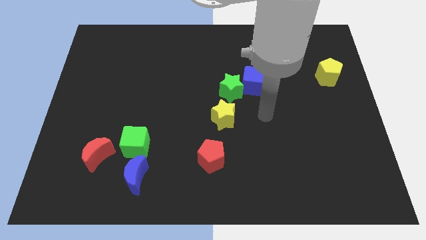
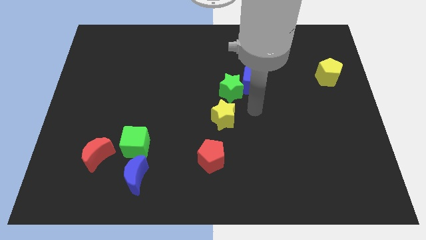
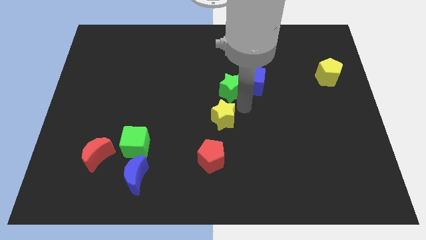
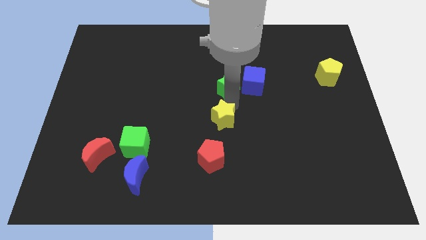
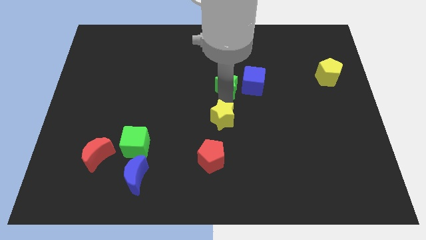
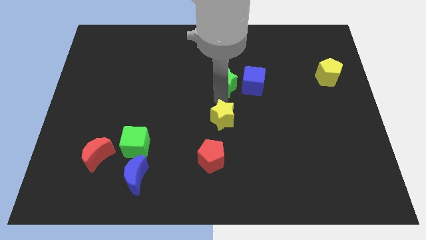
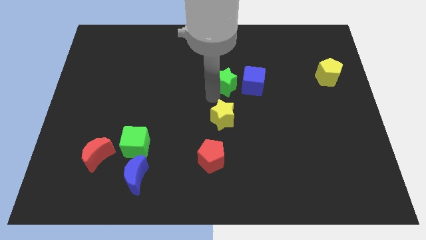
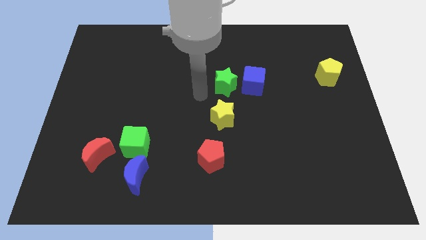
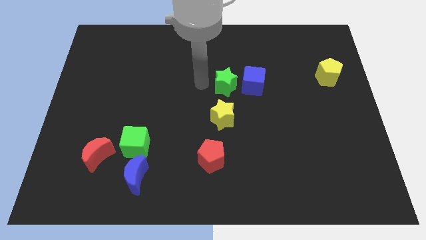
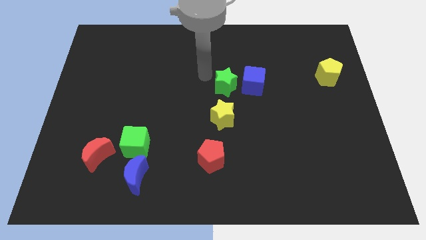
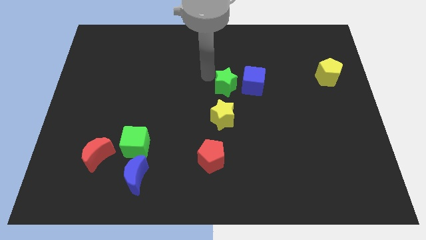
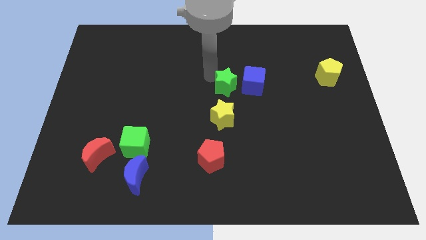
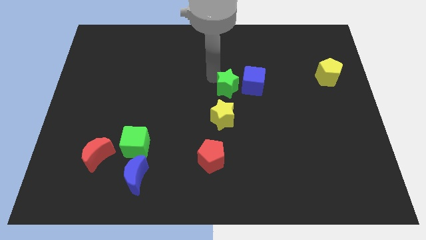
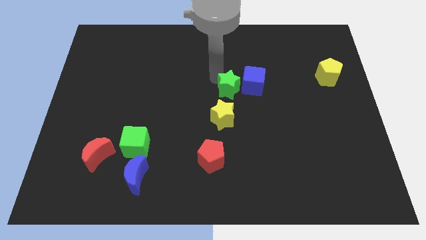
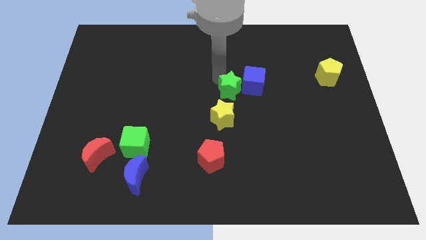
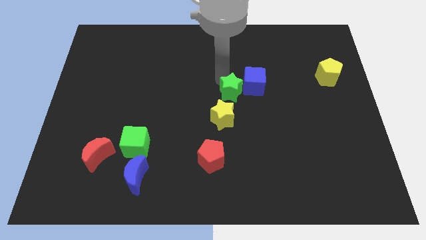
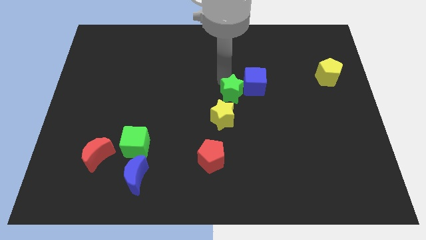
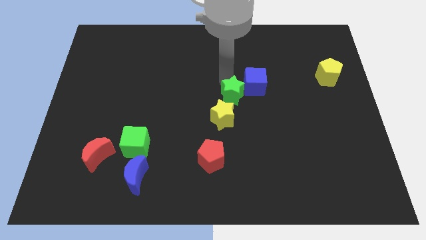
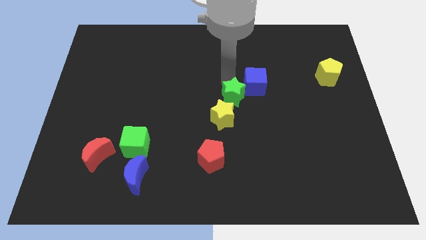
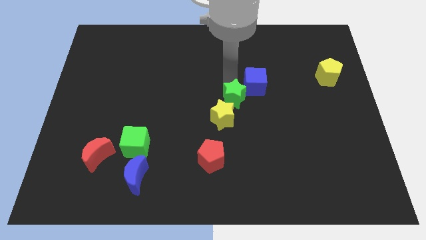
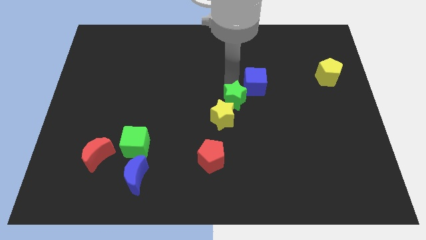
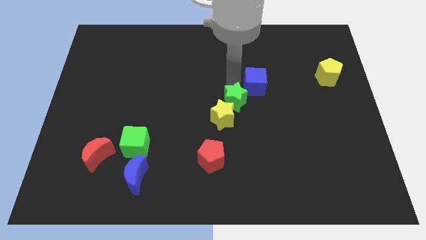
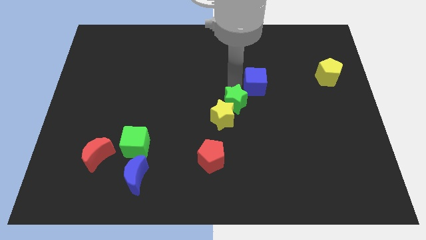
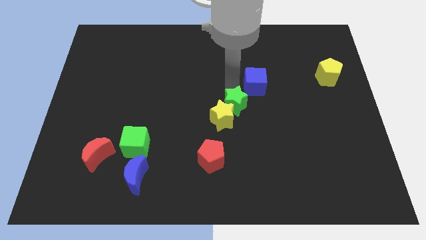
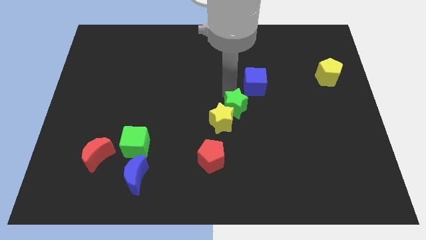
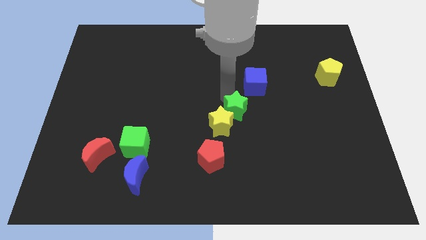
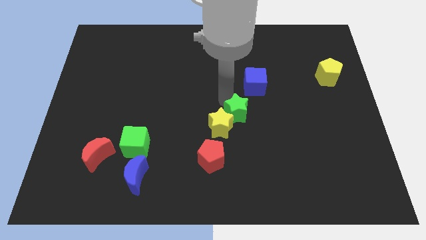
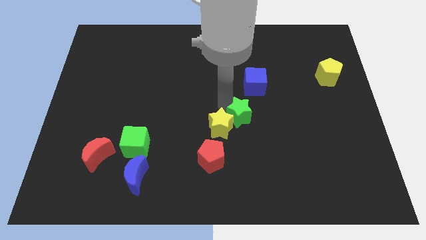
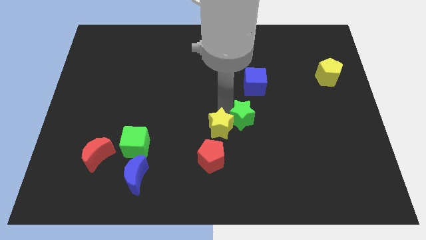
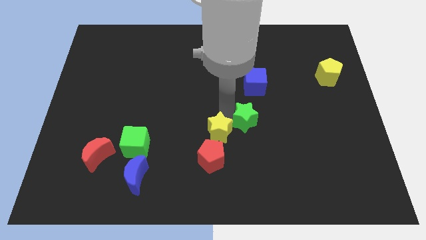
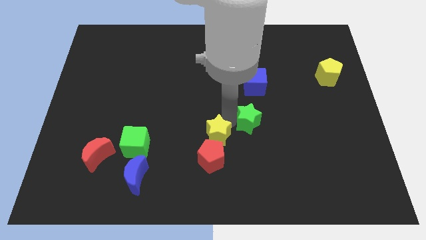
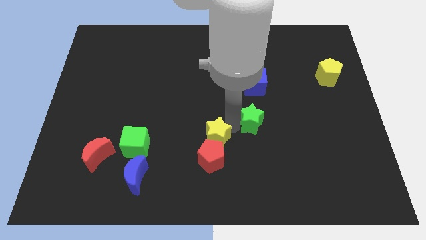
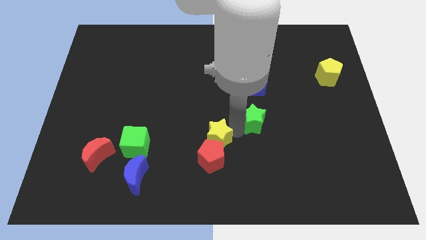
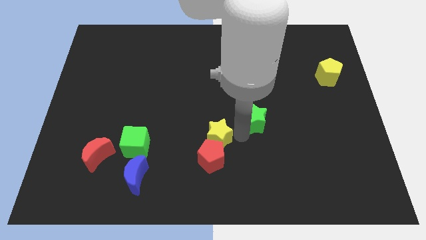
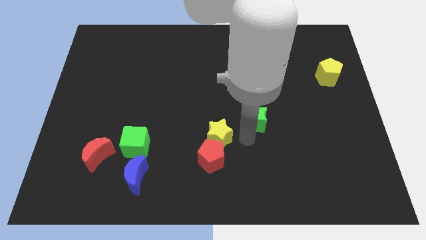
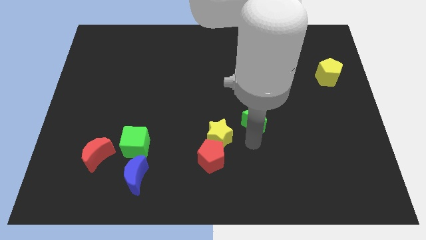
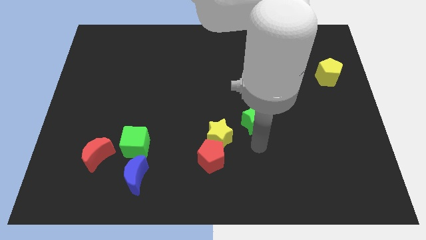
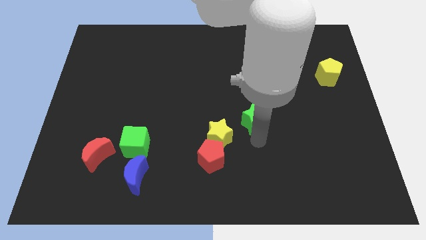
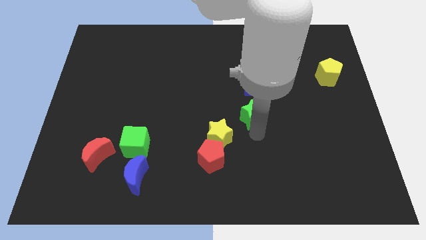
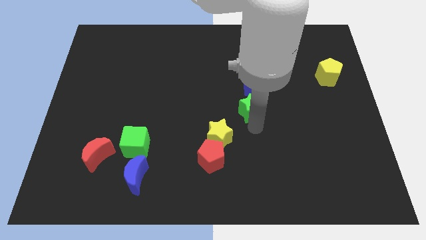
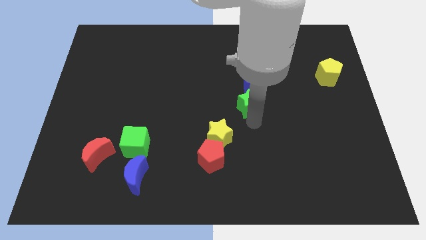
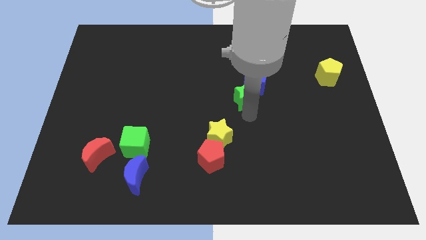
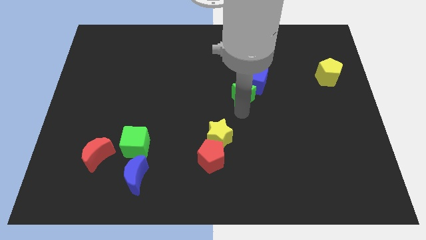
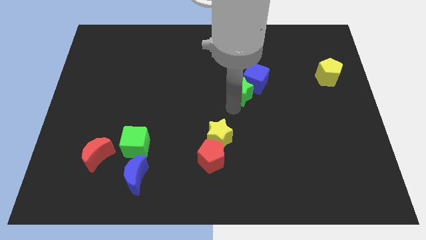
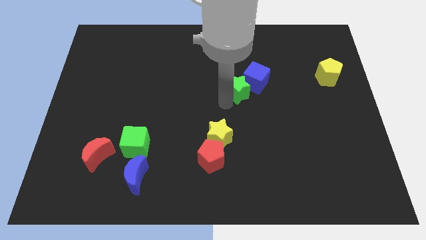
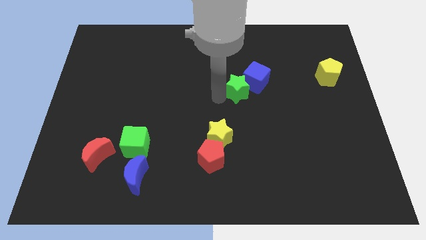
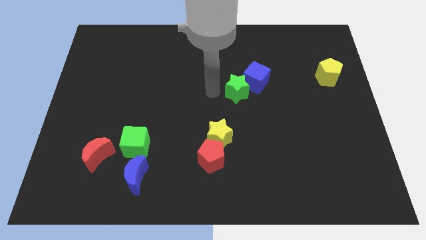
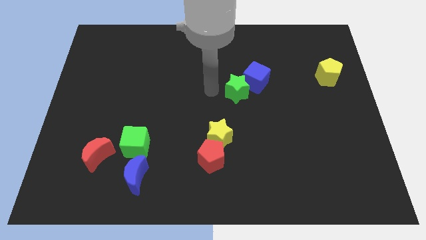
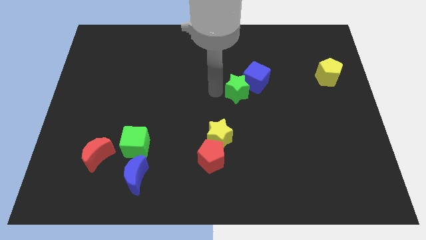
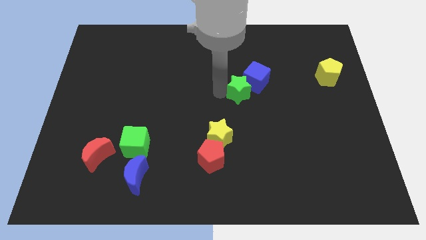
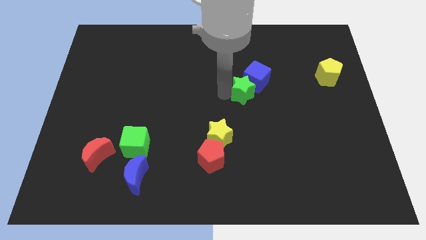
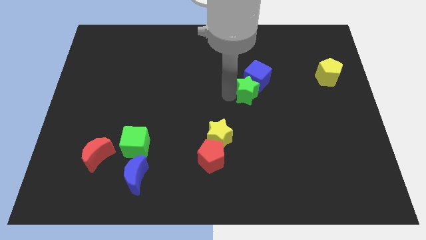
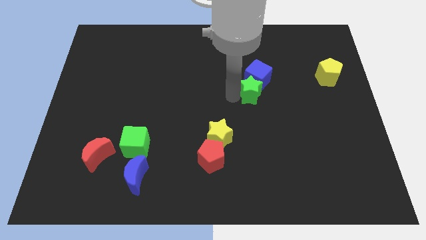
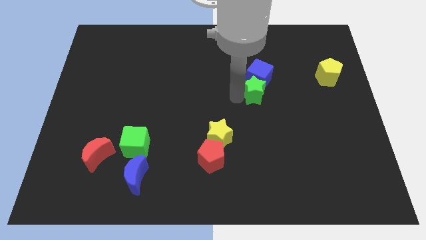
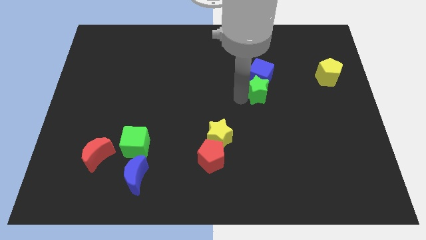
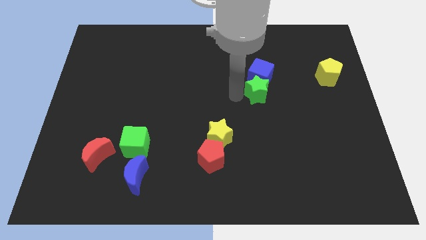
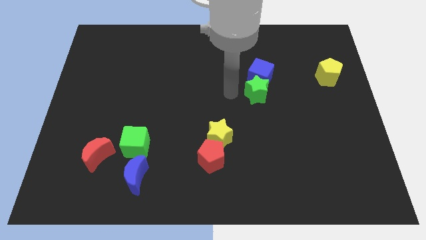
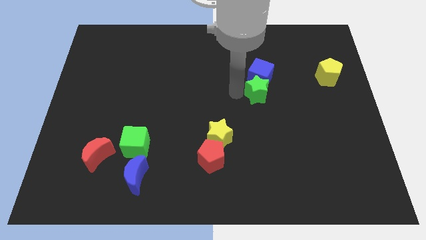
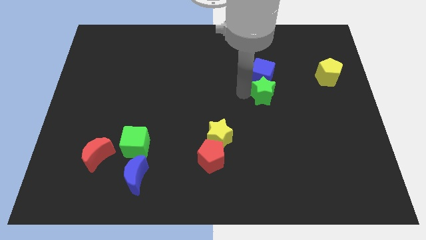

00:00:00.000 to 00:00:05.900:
slightly push the green star to the right

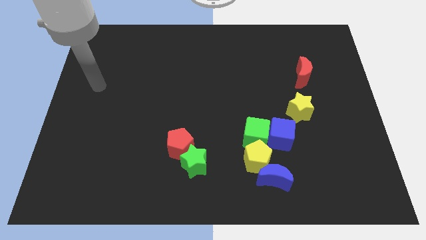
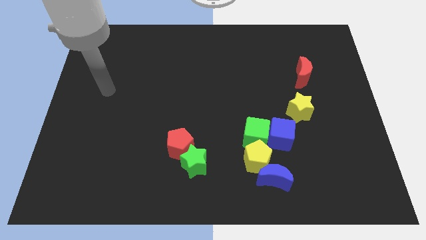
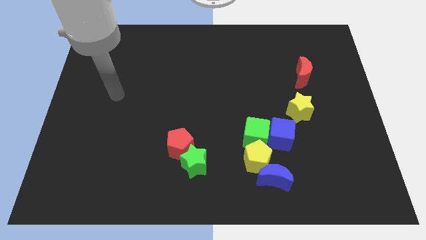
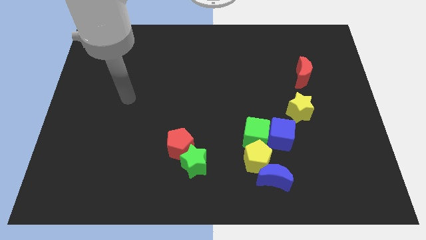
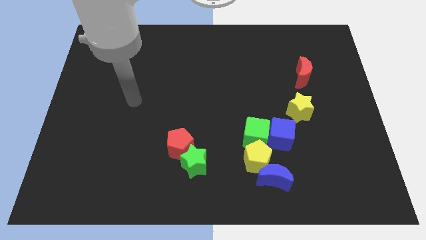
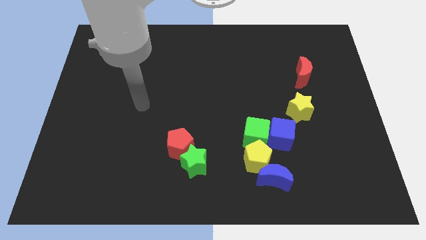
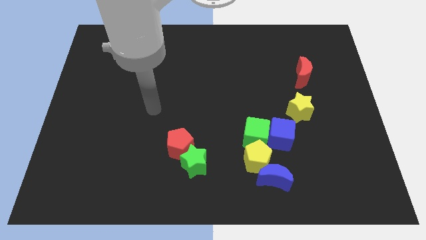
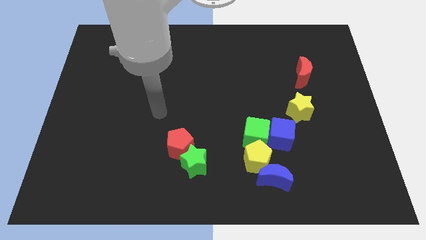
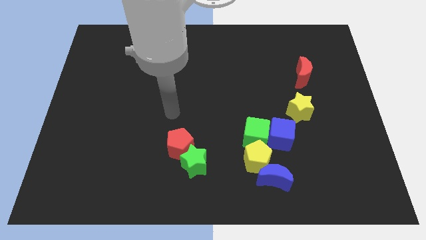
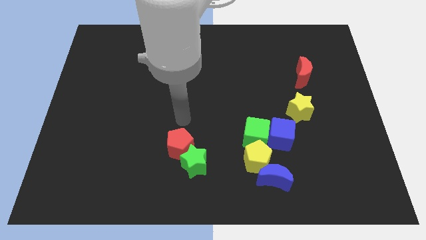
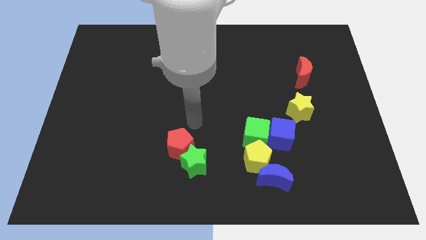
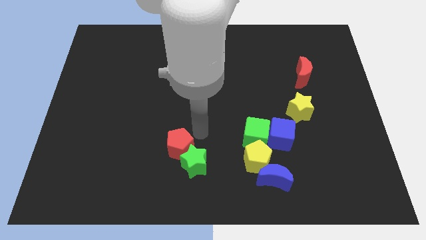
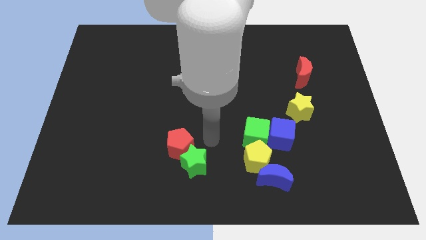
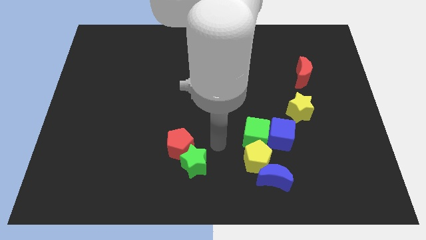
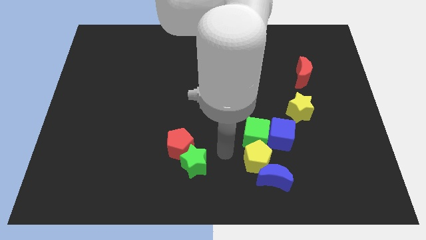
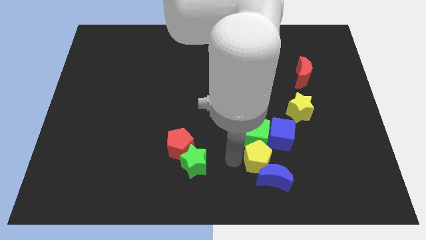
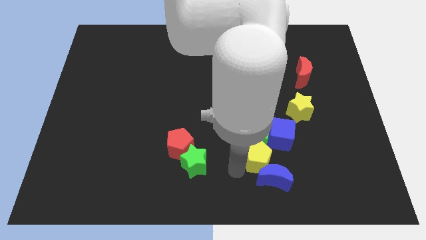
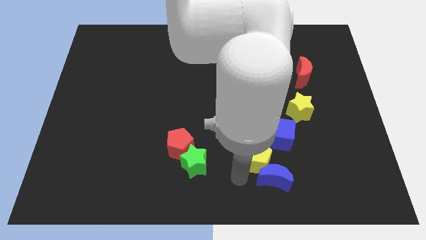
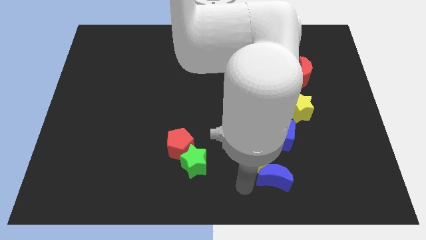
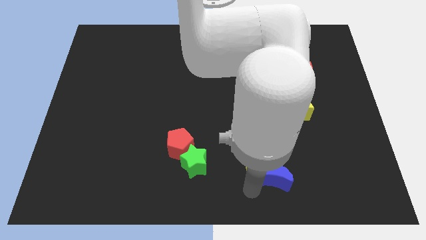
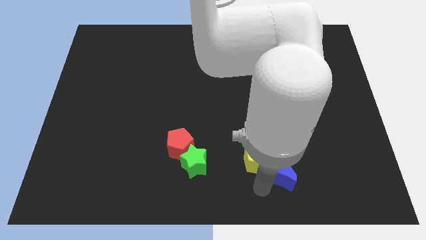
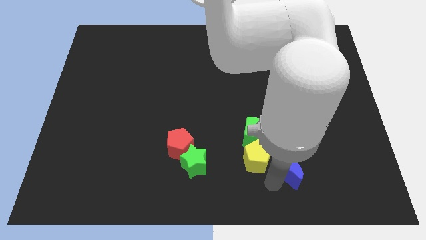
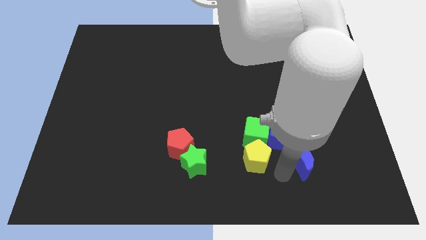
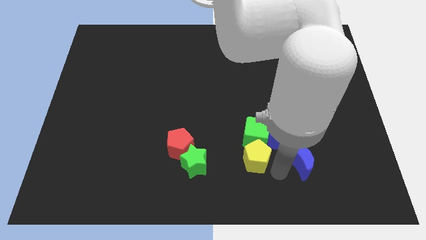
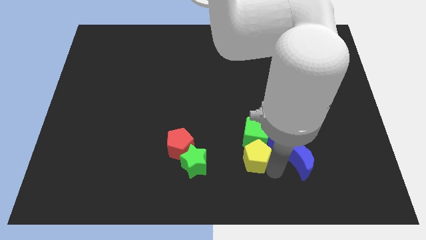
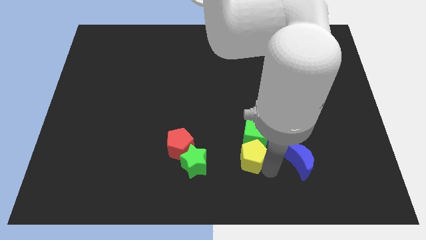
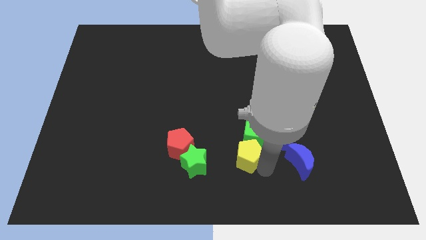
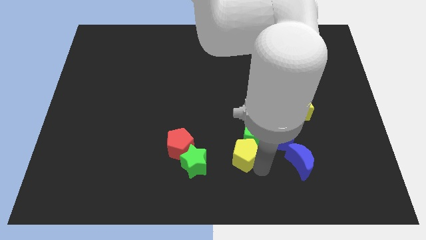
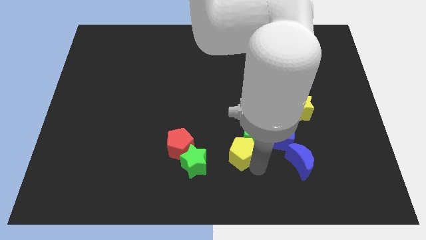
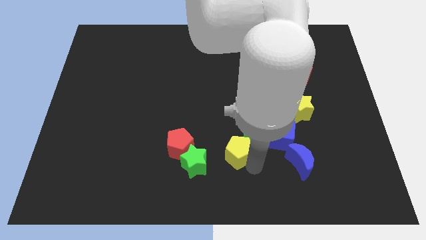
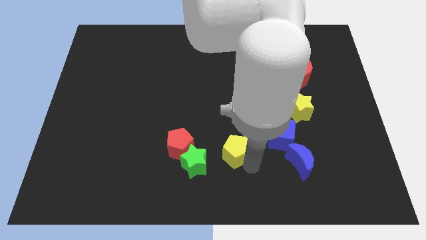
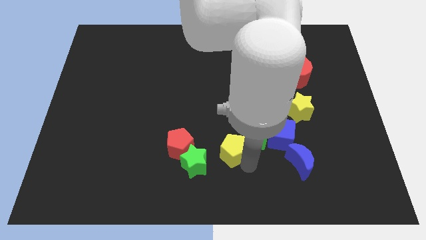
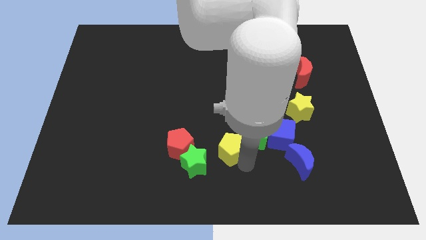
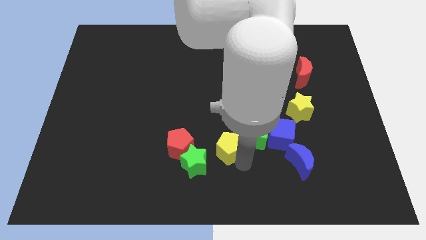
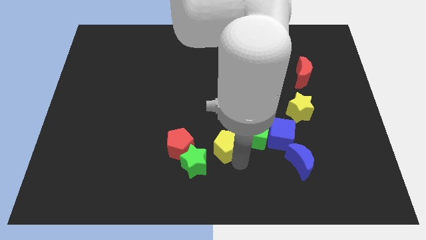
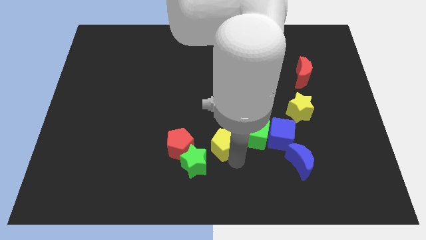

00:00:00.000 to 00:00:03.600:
push the yellow pentagon upwards and then to the left slightly
